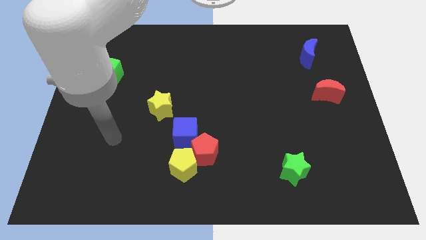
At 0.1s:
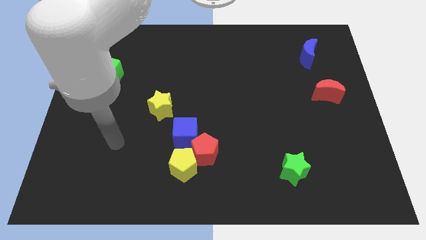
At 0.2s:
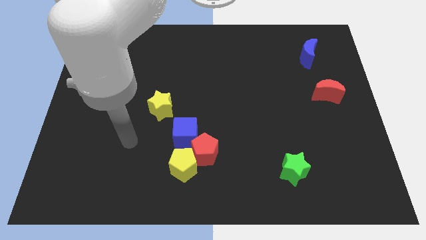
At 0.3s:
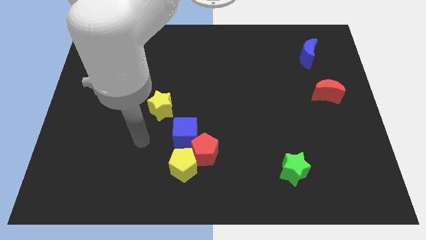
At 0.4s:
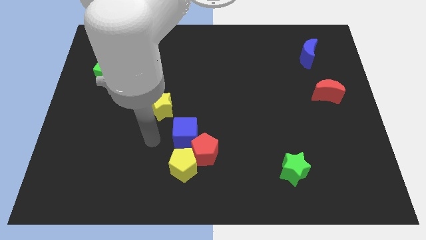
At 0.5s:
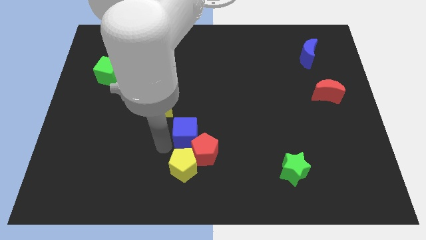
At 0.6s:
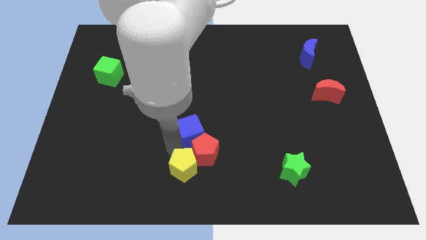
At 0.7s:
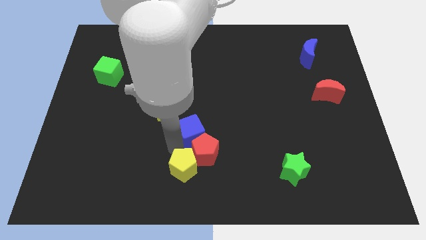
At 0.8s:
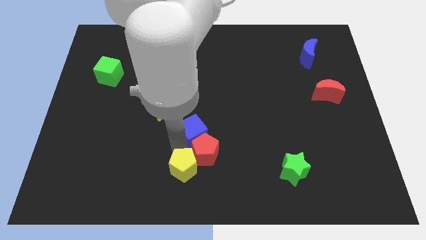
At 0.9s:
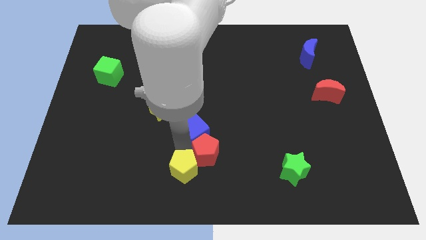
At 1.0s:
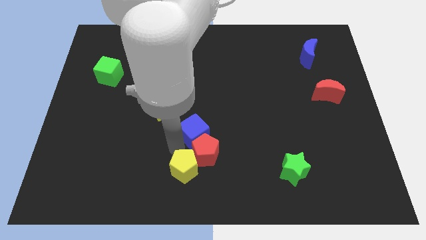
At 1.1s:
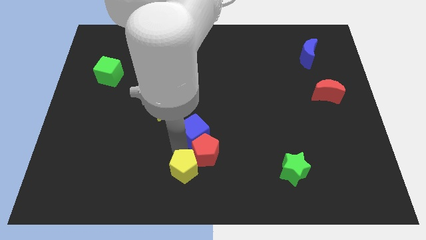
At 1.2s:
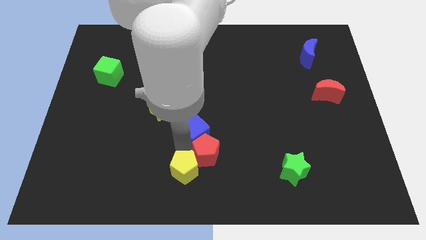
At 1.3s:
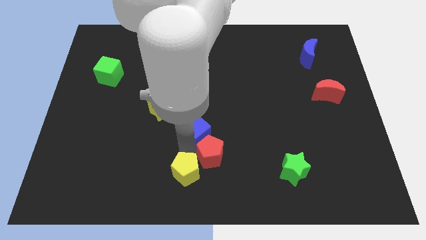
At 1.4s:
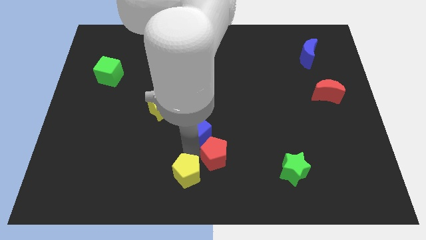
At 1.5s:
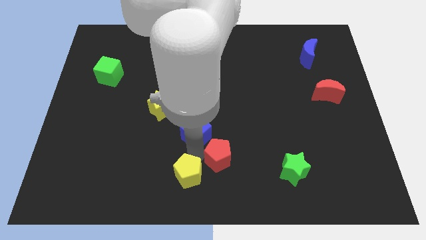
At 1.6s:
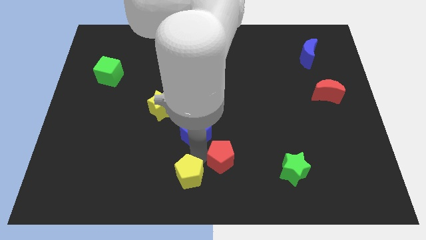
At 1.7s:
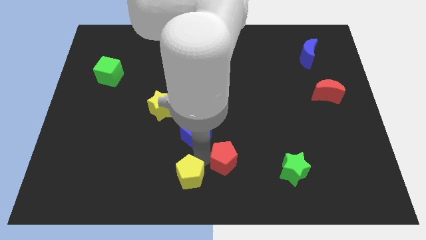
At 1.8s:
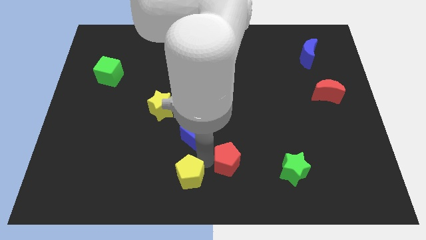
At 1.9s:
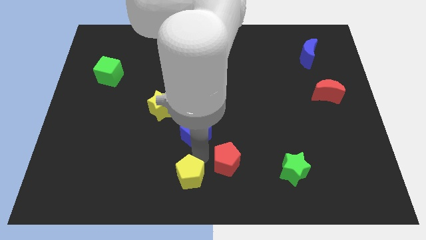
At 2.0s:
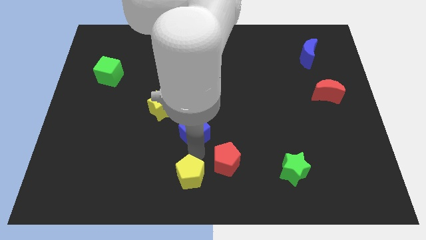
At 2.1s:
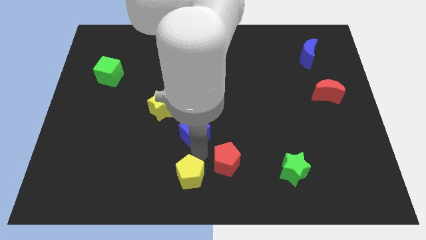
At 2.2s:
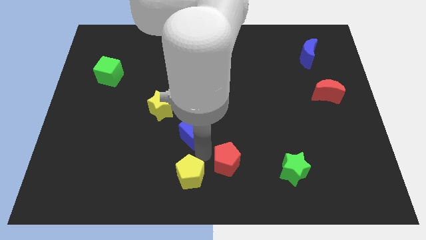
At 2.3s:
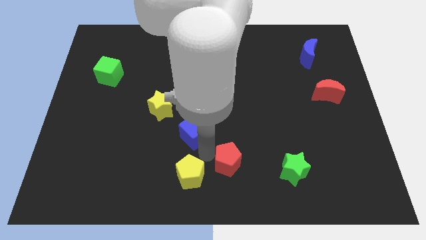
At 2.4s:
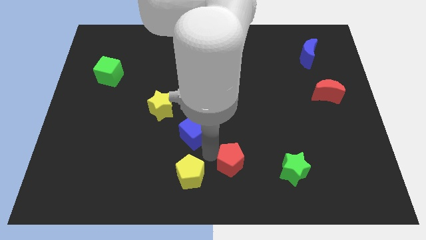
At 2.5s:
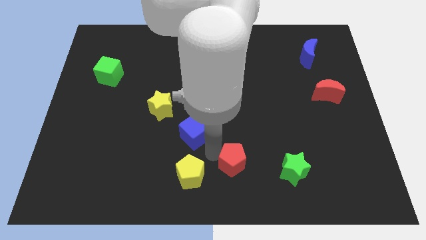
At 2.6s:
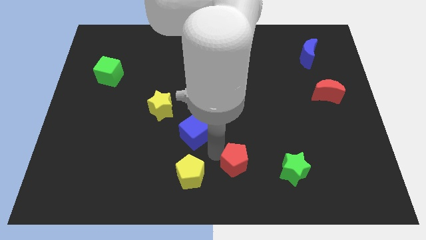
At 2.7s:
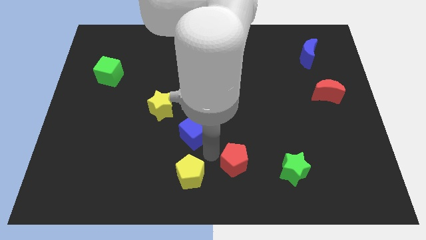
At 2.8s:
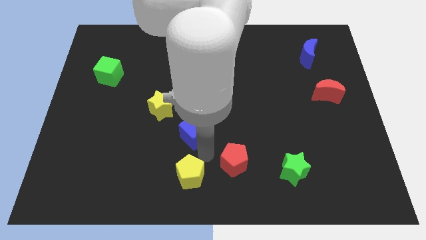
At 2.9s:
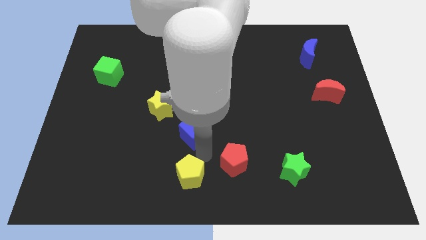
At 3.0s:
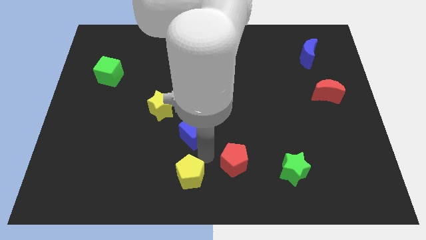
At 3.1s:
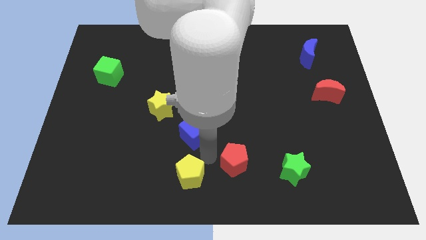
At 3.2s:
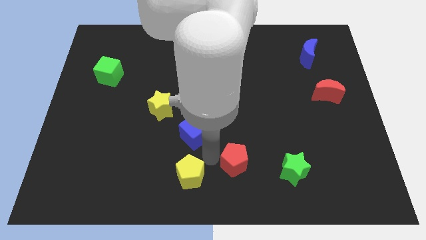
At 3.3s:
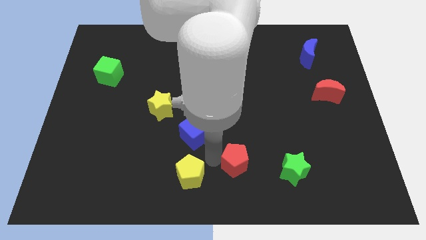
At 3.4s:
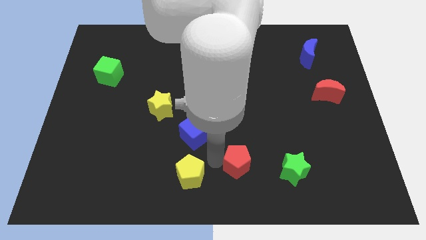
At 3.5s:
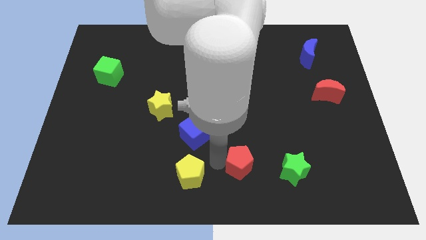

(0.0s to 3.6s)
pull the red pentagon apart from the yellow pentagon and blue cube

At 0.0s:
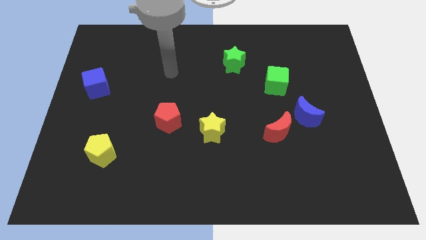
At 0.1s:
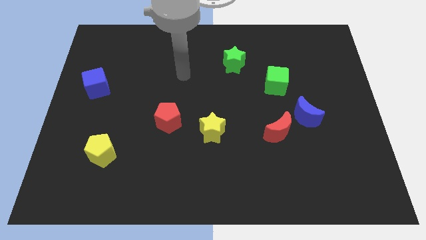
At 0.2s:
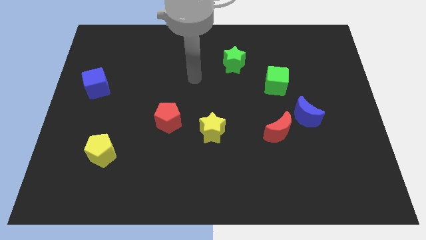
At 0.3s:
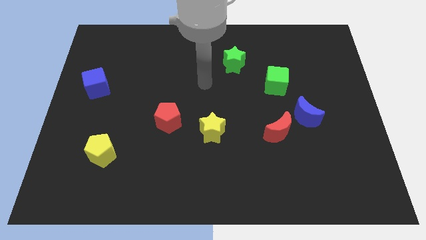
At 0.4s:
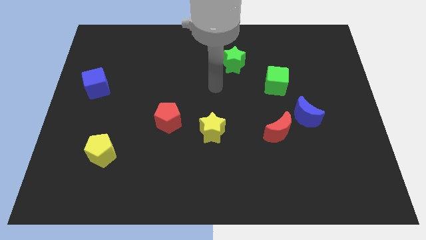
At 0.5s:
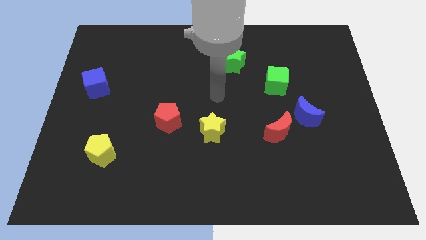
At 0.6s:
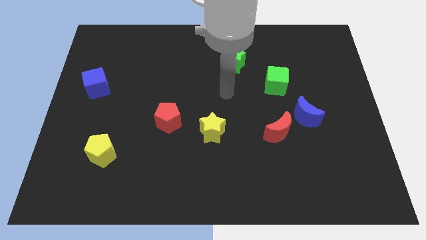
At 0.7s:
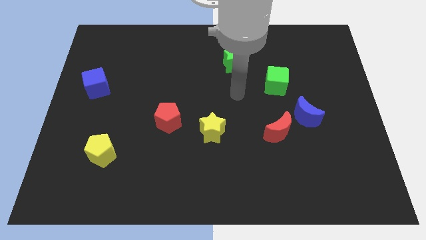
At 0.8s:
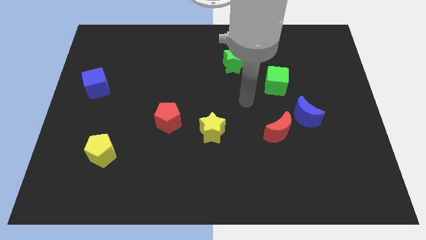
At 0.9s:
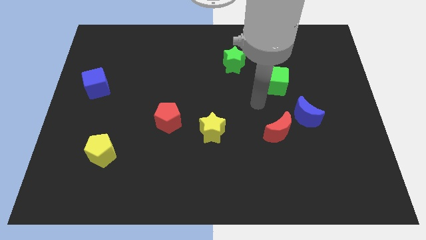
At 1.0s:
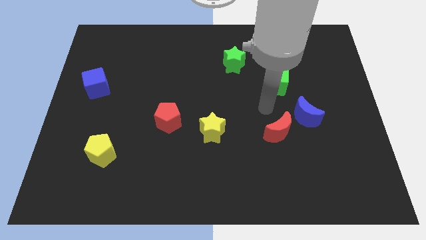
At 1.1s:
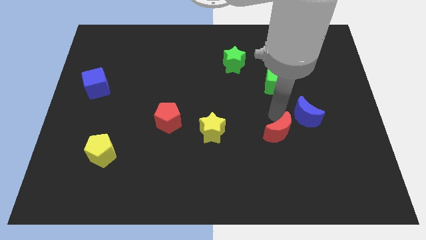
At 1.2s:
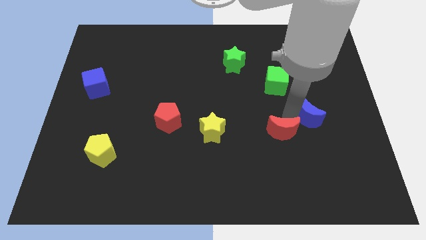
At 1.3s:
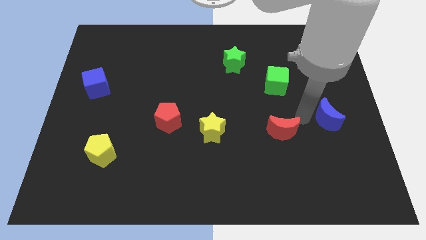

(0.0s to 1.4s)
pull the red moon apart from the blue moon

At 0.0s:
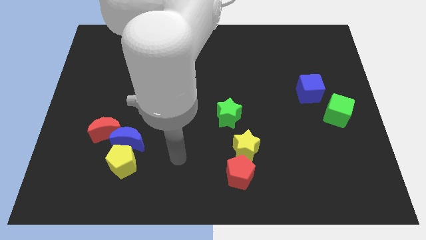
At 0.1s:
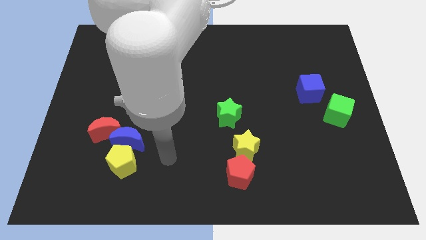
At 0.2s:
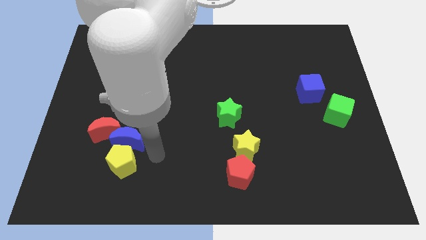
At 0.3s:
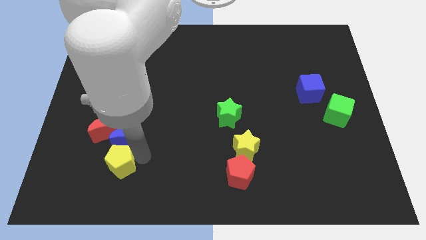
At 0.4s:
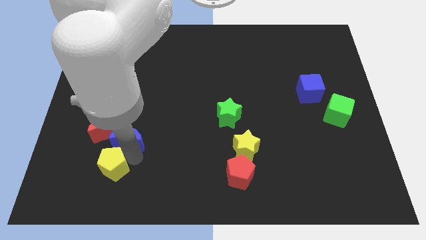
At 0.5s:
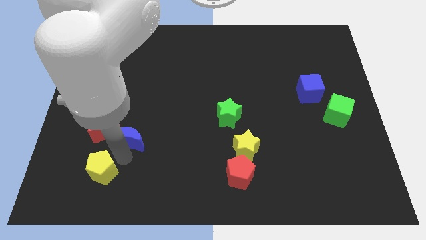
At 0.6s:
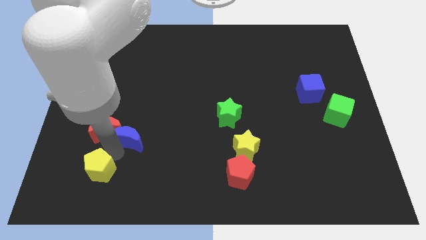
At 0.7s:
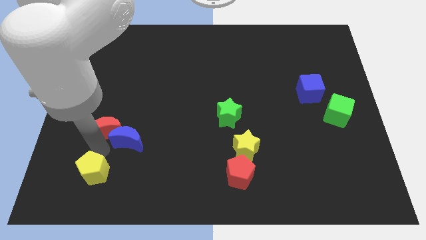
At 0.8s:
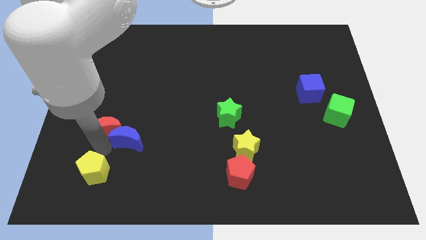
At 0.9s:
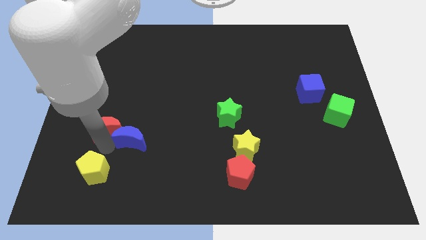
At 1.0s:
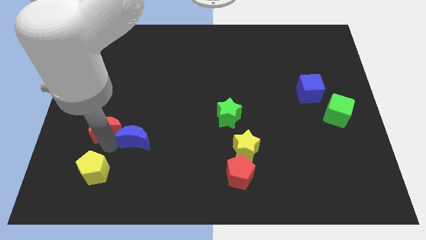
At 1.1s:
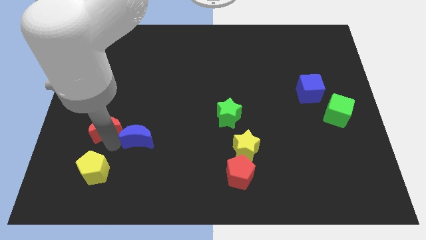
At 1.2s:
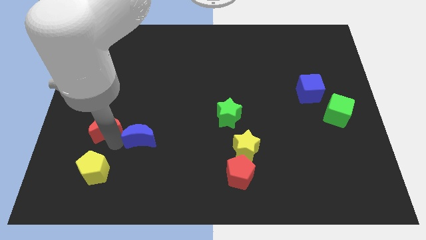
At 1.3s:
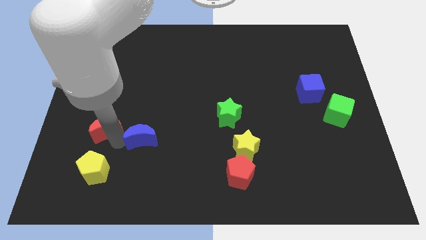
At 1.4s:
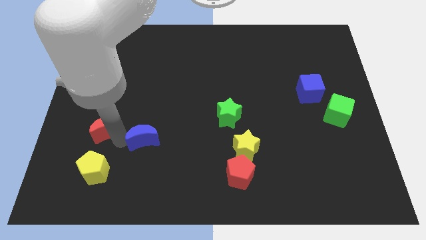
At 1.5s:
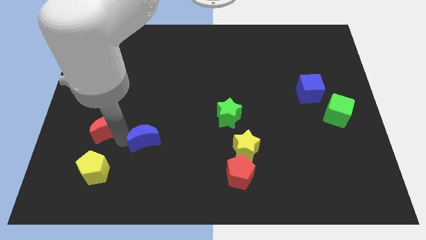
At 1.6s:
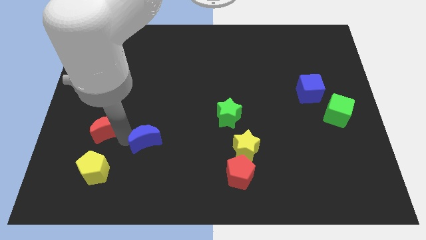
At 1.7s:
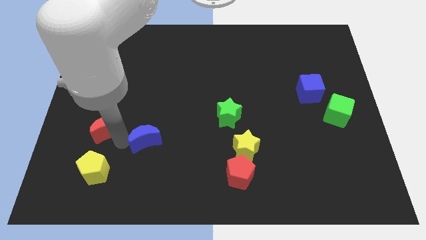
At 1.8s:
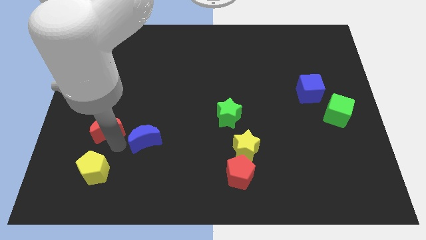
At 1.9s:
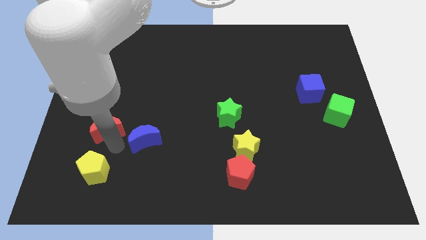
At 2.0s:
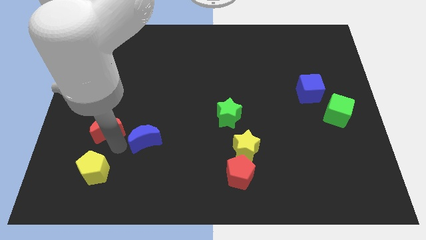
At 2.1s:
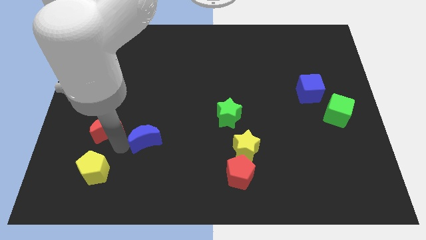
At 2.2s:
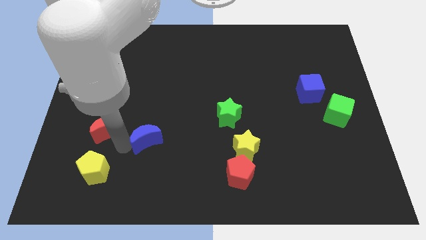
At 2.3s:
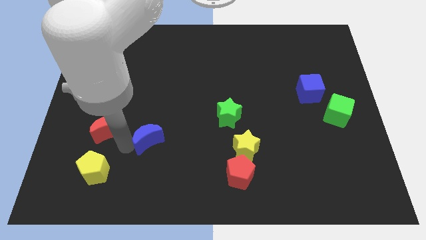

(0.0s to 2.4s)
pull the blue moon apart from the yellow pentagon and red moon

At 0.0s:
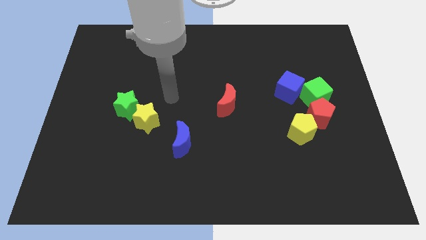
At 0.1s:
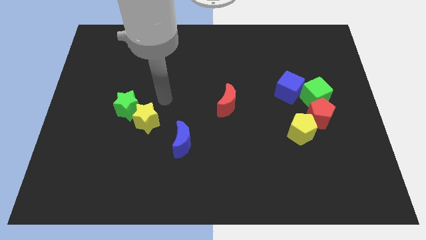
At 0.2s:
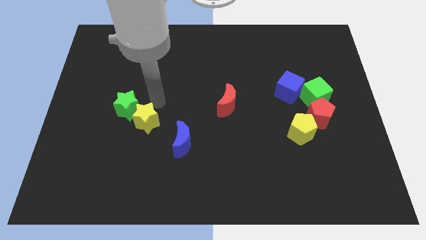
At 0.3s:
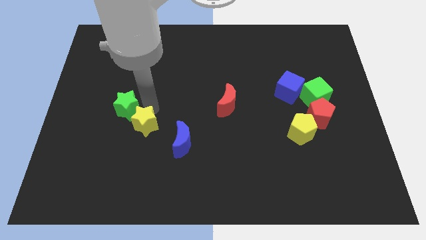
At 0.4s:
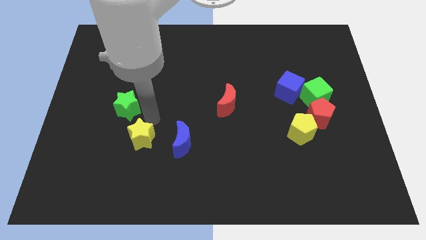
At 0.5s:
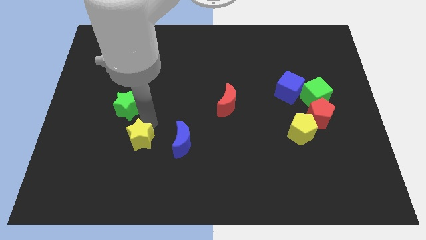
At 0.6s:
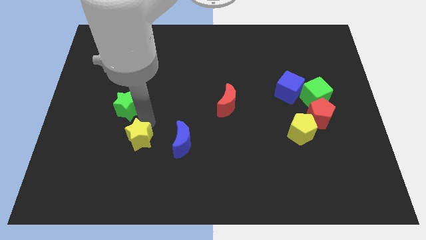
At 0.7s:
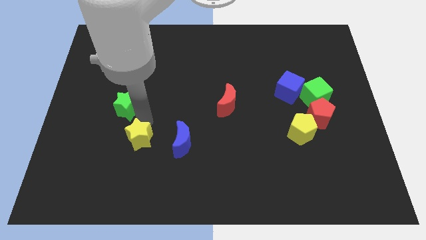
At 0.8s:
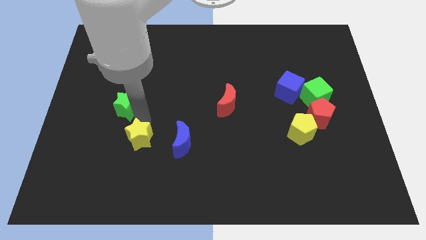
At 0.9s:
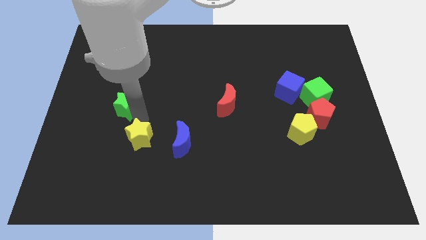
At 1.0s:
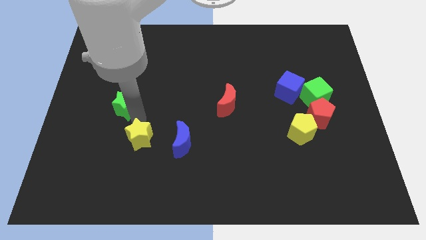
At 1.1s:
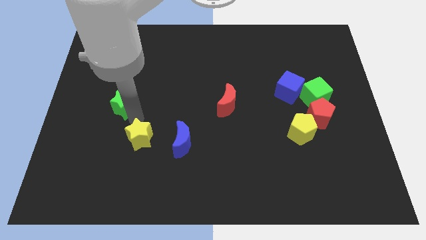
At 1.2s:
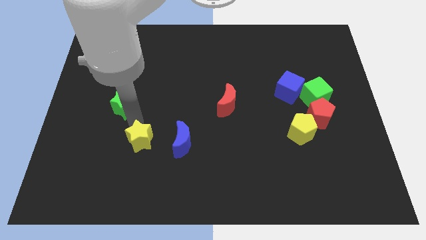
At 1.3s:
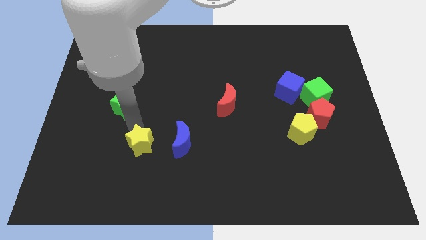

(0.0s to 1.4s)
move the green star away from the yellow star

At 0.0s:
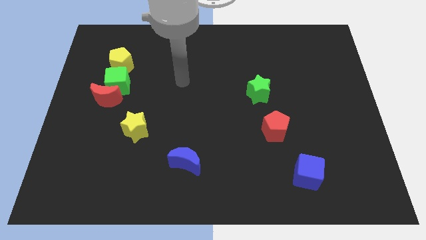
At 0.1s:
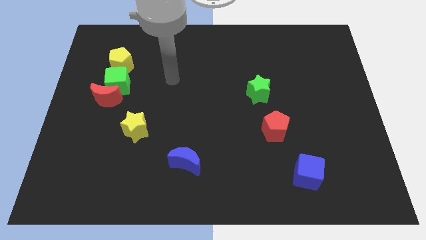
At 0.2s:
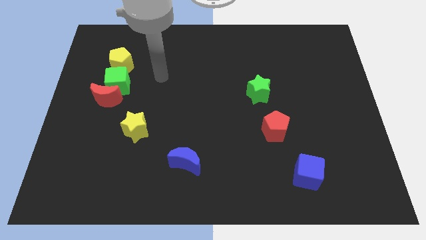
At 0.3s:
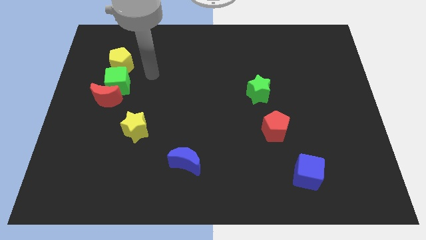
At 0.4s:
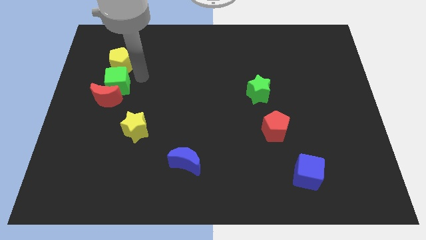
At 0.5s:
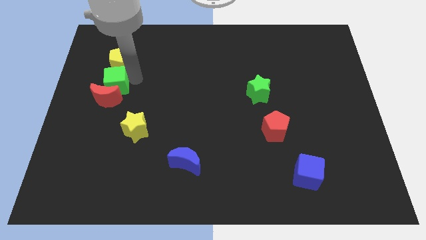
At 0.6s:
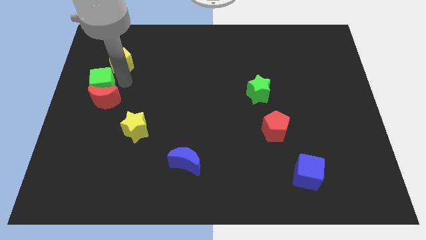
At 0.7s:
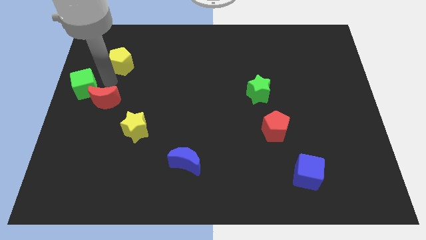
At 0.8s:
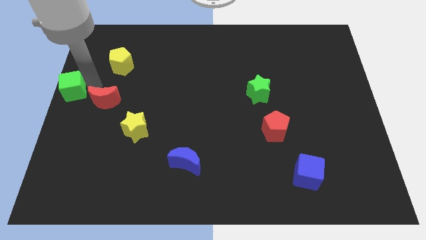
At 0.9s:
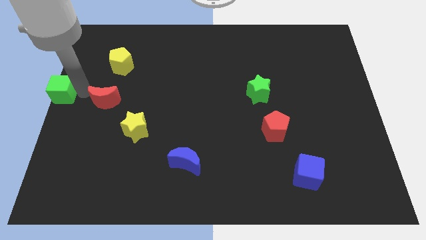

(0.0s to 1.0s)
pull the red moon apart from the green cube
